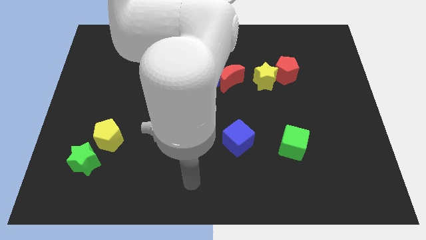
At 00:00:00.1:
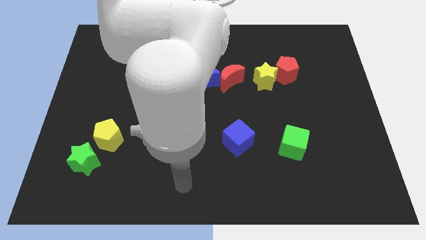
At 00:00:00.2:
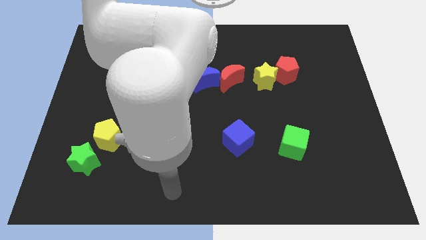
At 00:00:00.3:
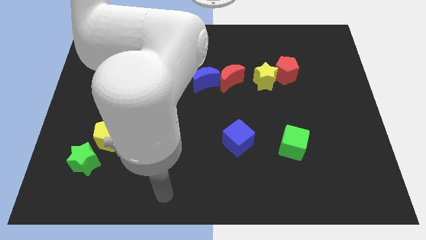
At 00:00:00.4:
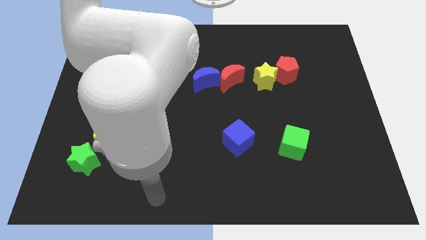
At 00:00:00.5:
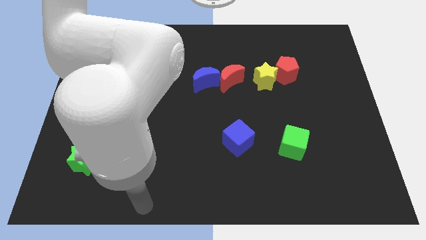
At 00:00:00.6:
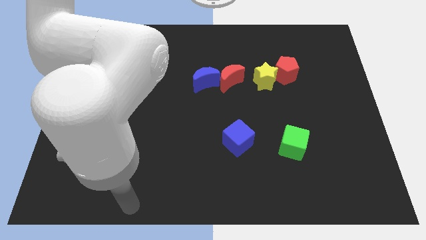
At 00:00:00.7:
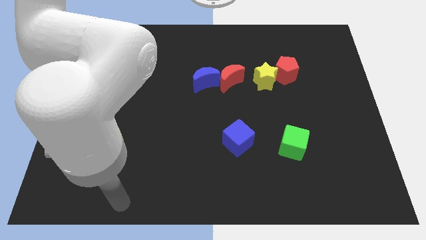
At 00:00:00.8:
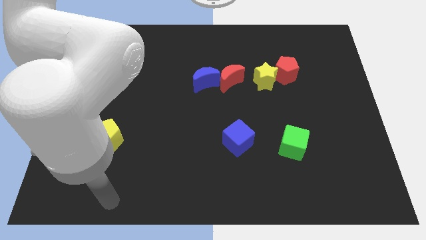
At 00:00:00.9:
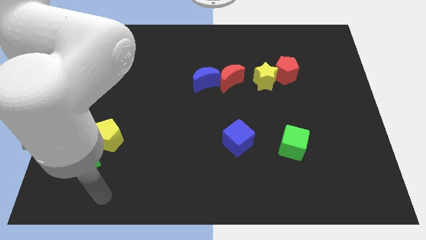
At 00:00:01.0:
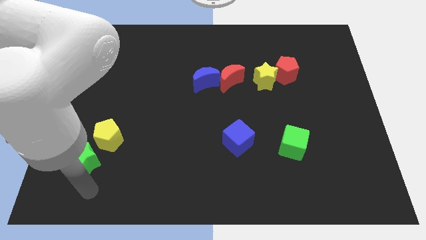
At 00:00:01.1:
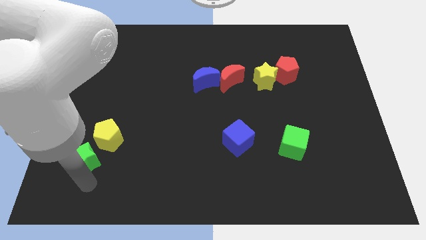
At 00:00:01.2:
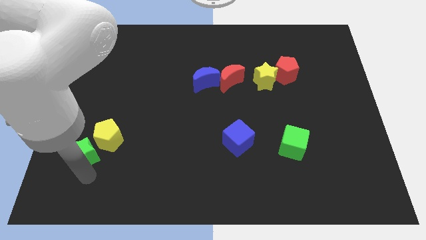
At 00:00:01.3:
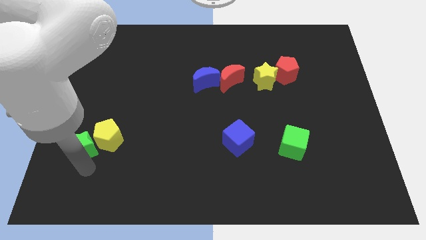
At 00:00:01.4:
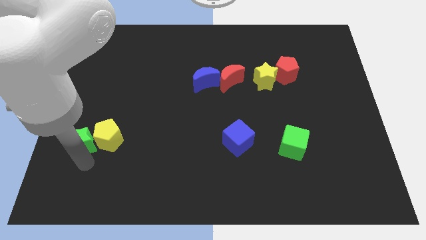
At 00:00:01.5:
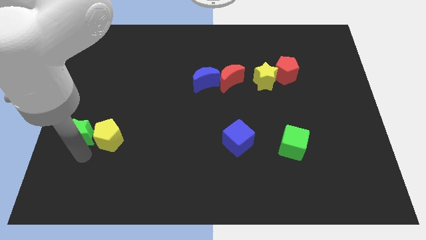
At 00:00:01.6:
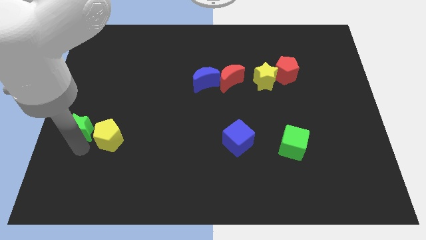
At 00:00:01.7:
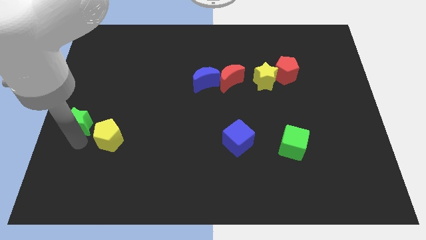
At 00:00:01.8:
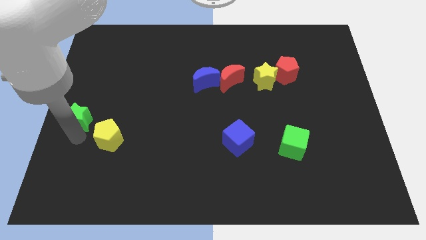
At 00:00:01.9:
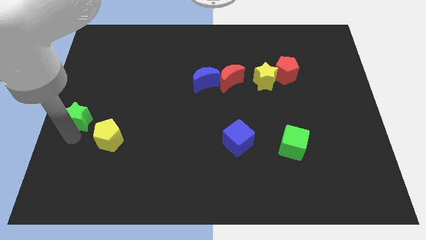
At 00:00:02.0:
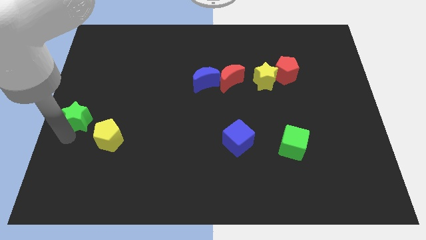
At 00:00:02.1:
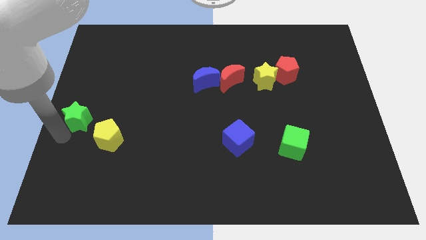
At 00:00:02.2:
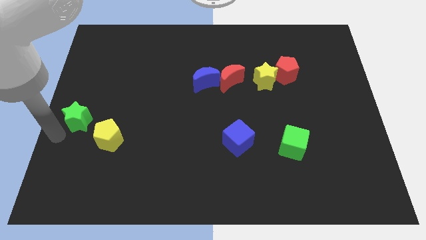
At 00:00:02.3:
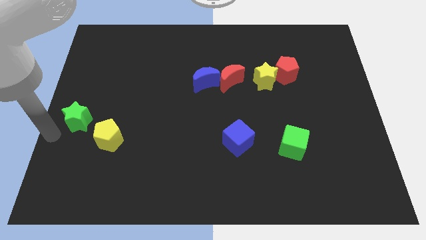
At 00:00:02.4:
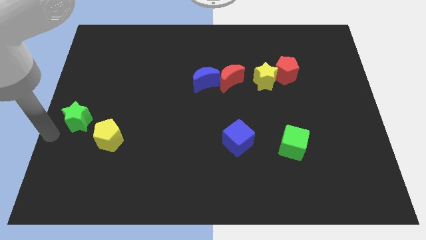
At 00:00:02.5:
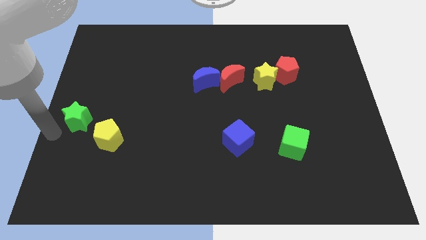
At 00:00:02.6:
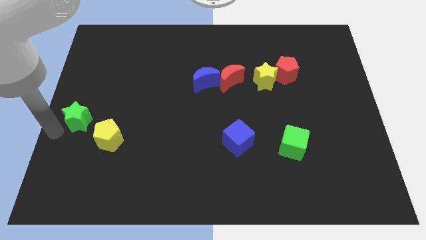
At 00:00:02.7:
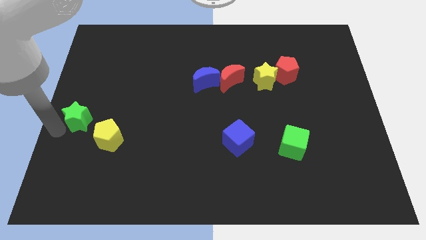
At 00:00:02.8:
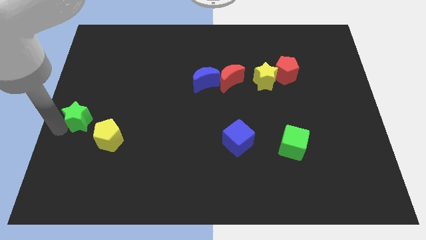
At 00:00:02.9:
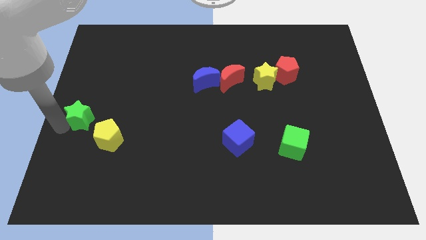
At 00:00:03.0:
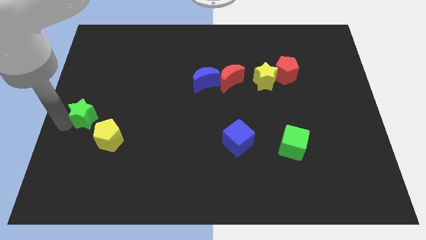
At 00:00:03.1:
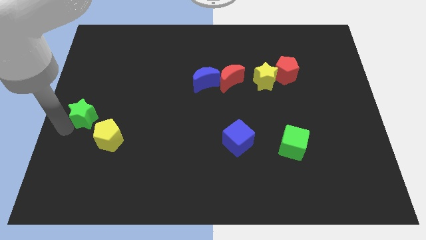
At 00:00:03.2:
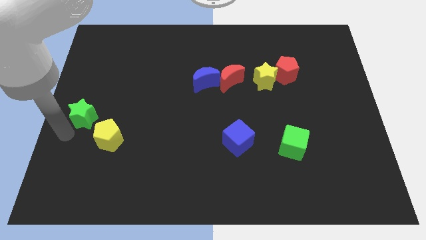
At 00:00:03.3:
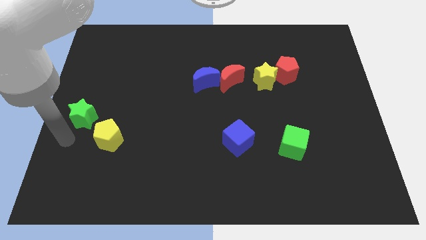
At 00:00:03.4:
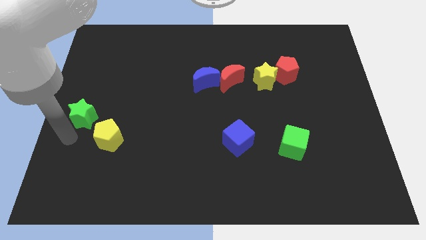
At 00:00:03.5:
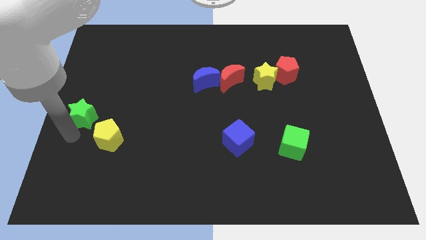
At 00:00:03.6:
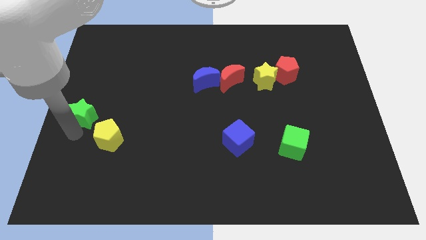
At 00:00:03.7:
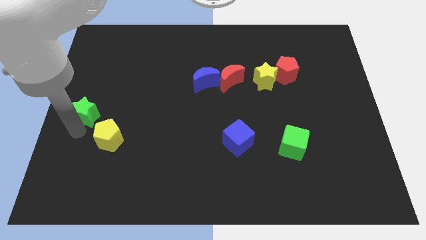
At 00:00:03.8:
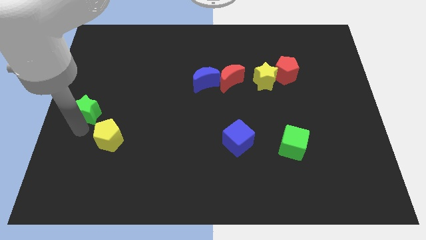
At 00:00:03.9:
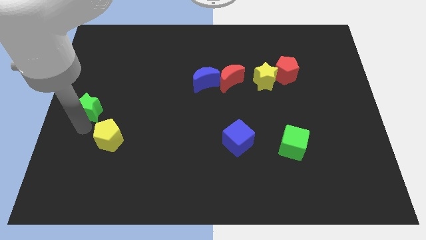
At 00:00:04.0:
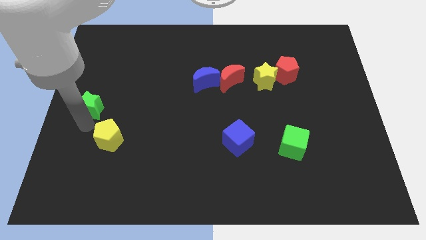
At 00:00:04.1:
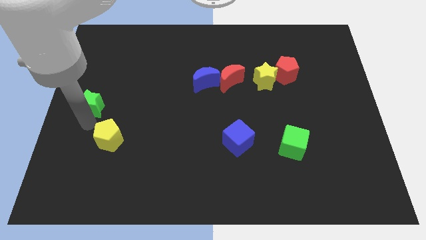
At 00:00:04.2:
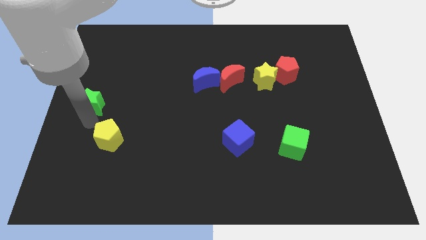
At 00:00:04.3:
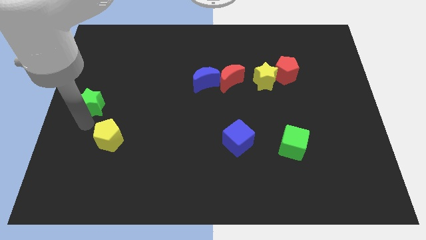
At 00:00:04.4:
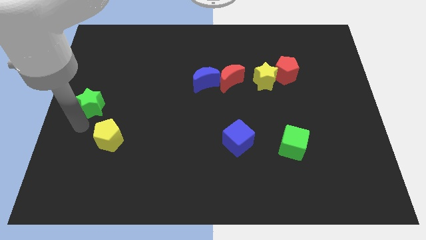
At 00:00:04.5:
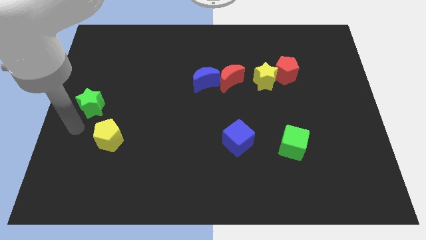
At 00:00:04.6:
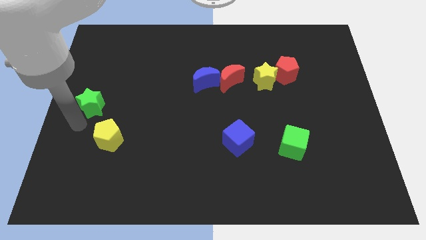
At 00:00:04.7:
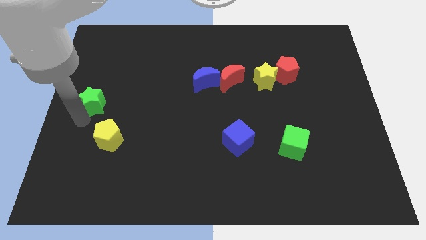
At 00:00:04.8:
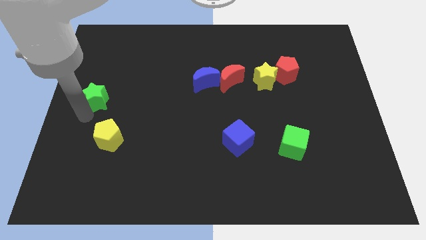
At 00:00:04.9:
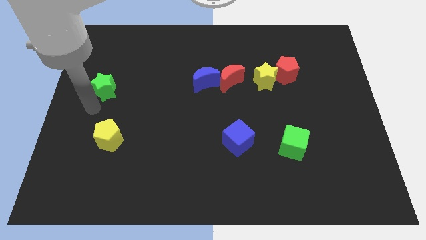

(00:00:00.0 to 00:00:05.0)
slide the green star up

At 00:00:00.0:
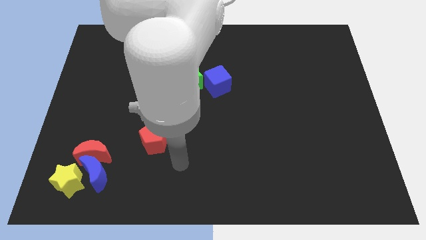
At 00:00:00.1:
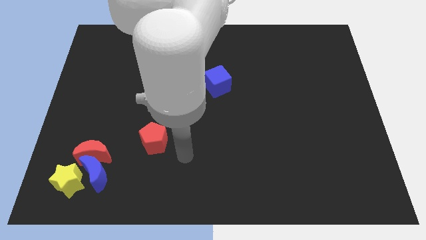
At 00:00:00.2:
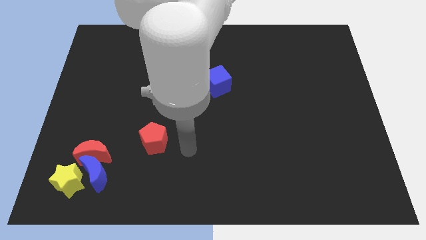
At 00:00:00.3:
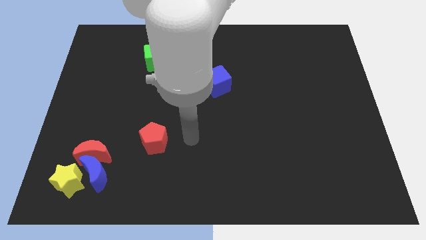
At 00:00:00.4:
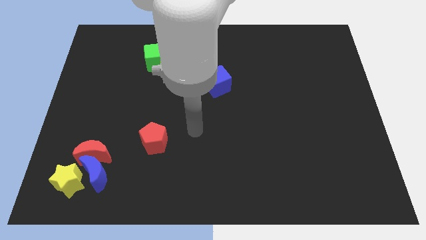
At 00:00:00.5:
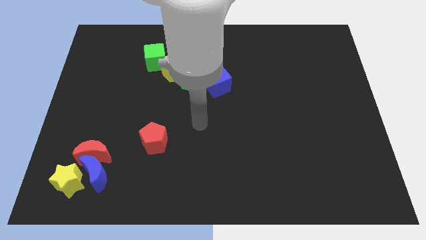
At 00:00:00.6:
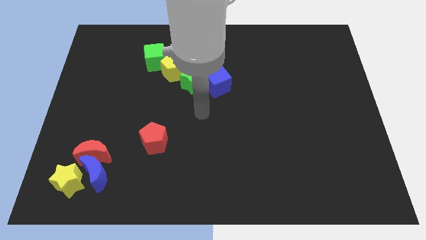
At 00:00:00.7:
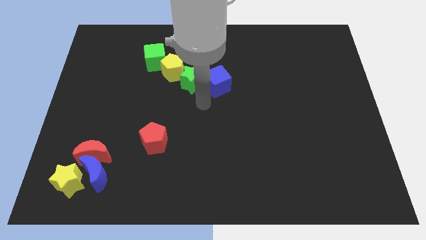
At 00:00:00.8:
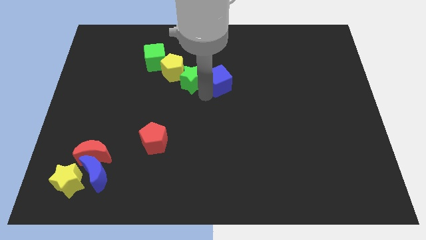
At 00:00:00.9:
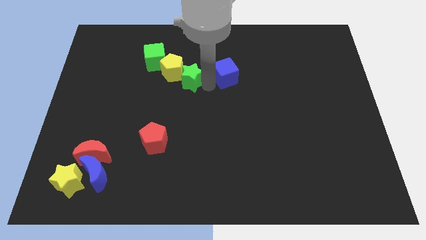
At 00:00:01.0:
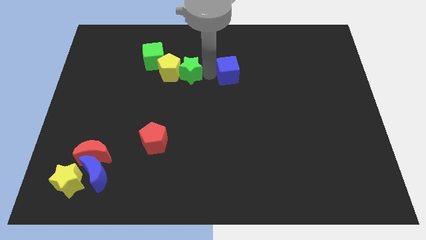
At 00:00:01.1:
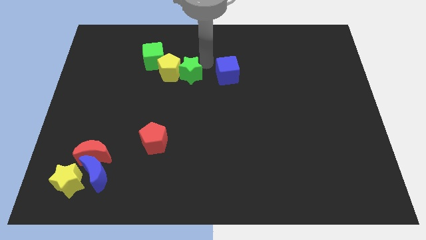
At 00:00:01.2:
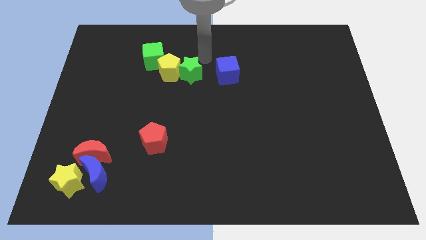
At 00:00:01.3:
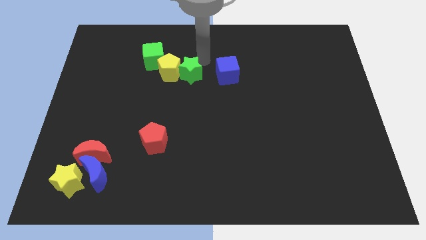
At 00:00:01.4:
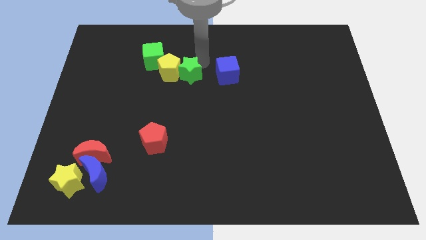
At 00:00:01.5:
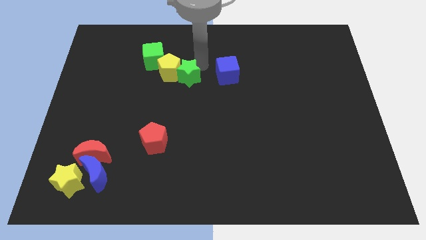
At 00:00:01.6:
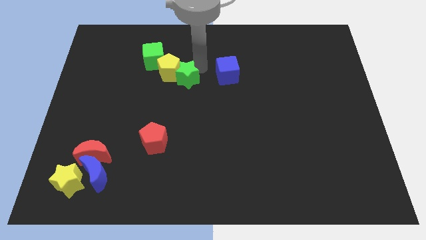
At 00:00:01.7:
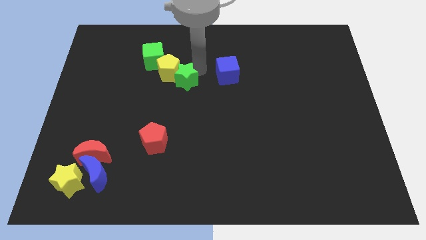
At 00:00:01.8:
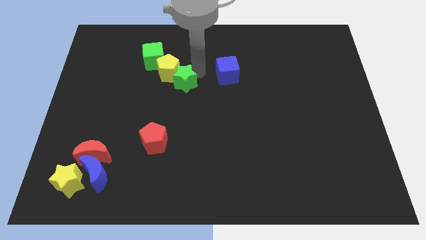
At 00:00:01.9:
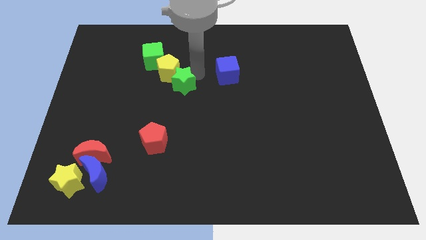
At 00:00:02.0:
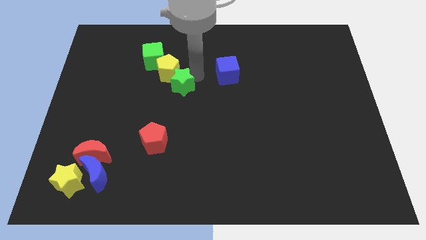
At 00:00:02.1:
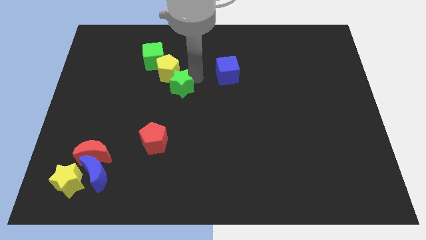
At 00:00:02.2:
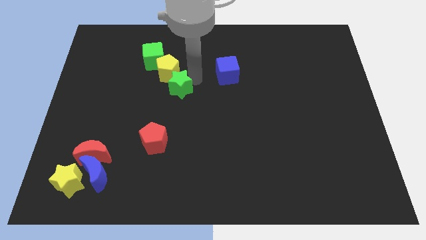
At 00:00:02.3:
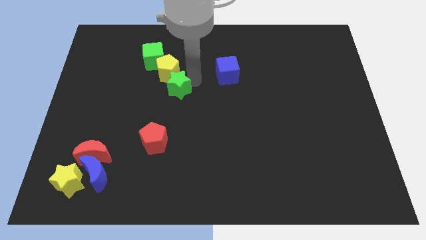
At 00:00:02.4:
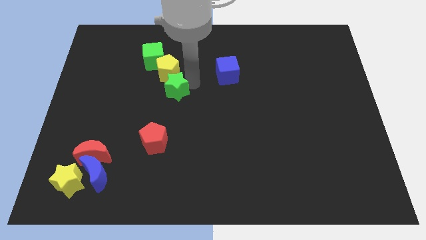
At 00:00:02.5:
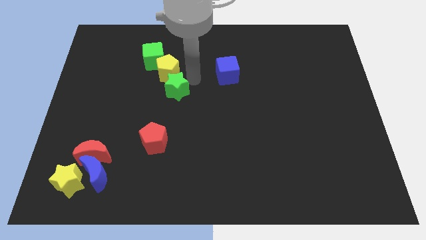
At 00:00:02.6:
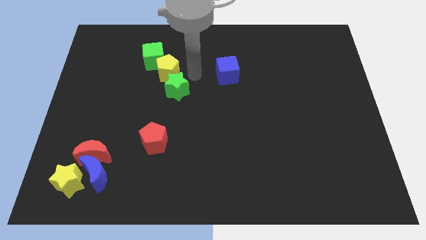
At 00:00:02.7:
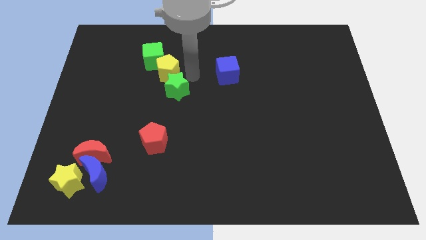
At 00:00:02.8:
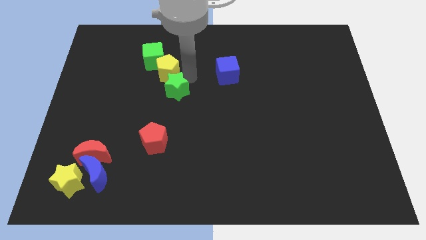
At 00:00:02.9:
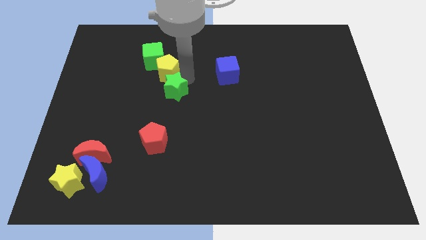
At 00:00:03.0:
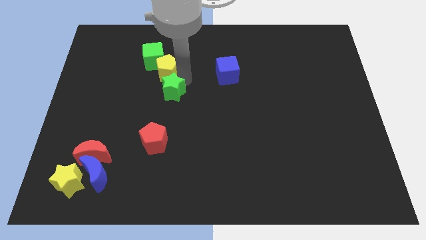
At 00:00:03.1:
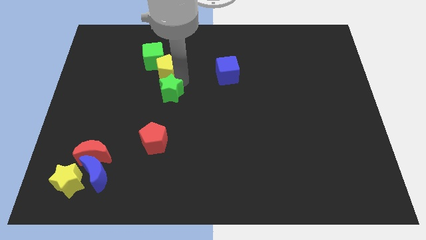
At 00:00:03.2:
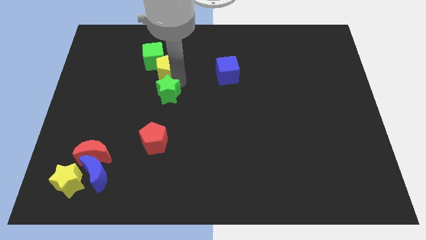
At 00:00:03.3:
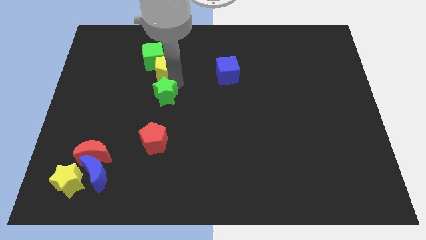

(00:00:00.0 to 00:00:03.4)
slide the green star downwards and then left somewhat
